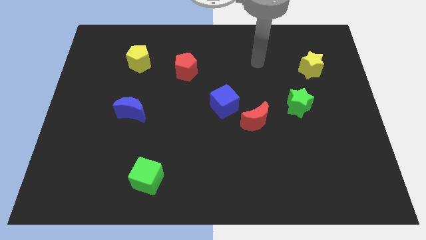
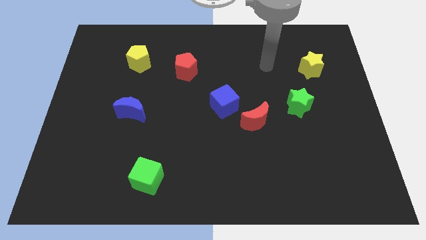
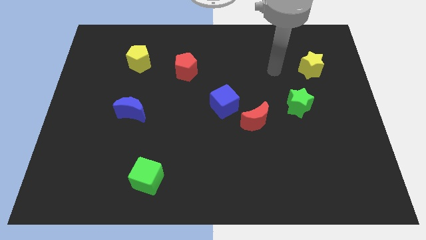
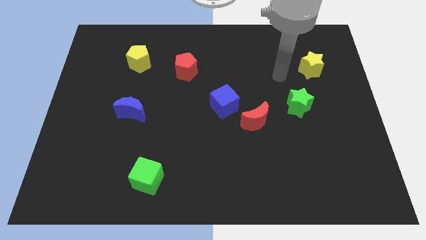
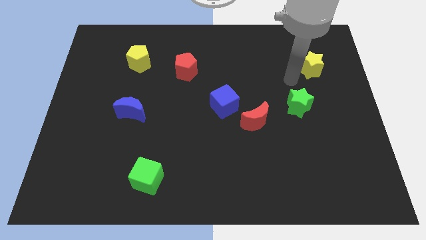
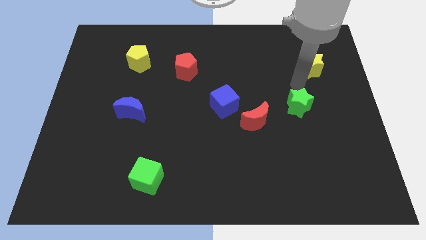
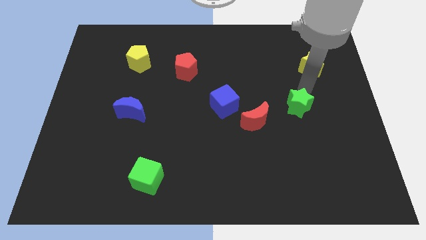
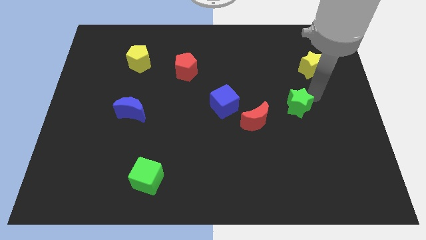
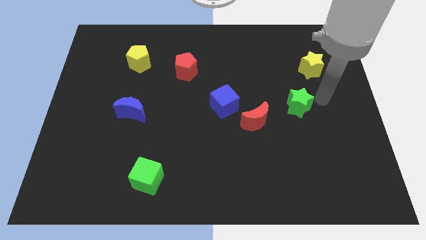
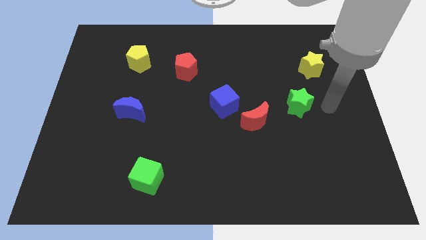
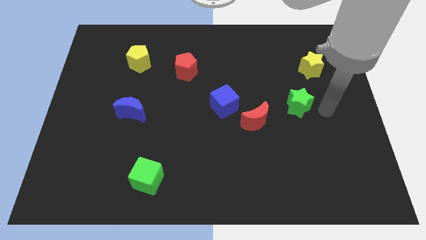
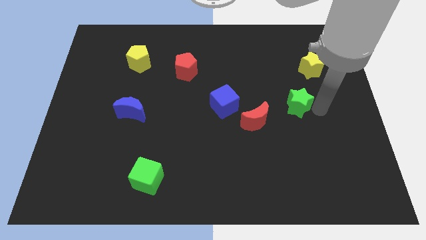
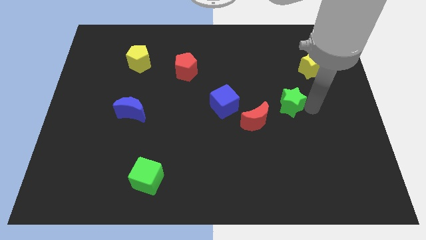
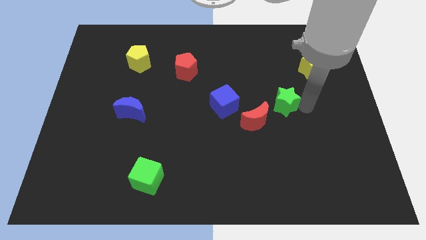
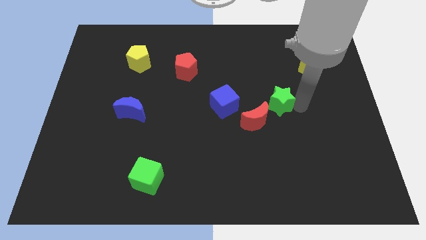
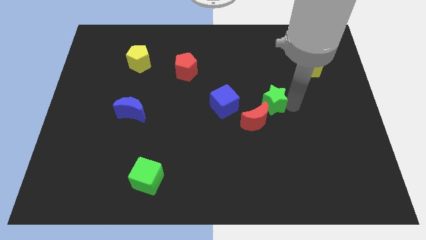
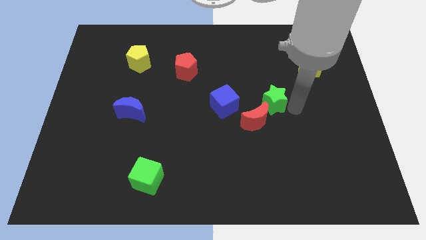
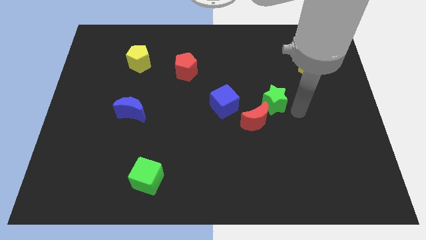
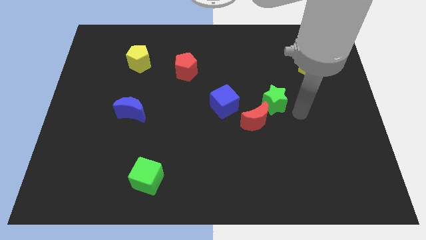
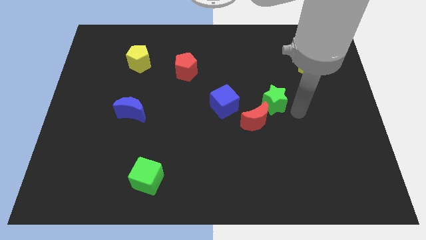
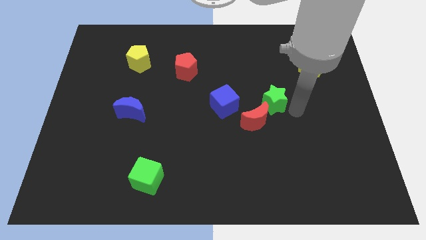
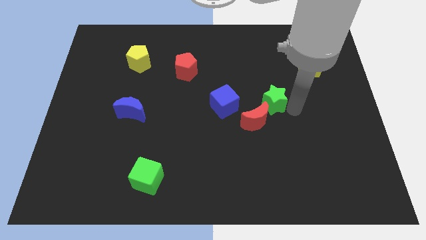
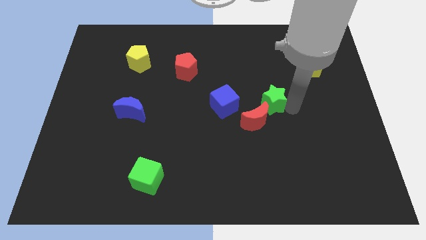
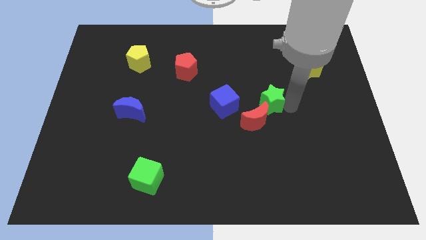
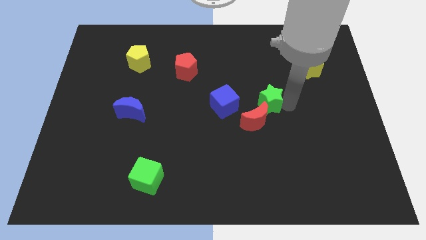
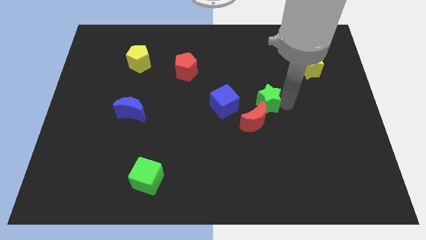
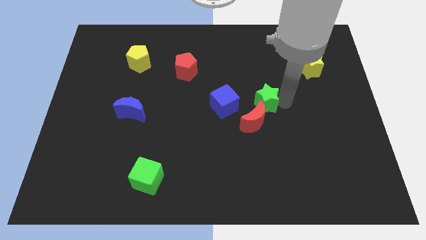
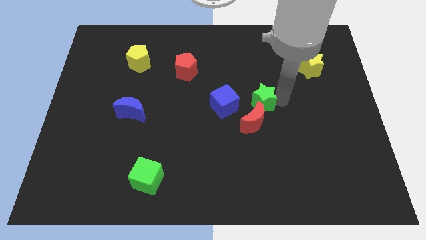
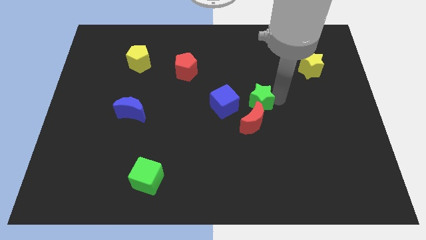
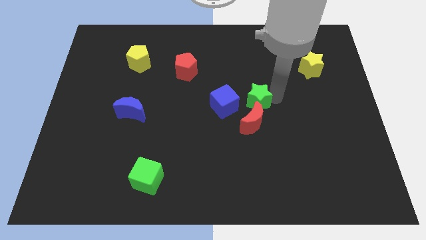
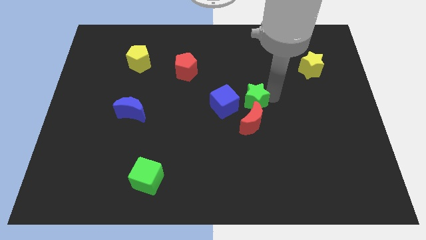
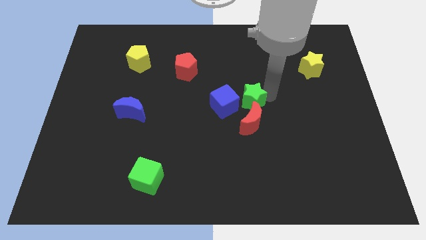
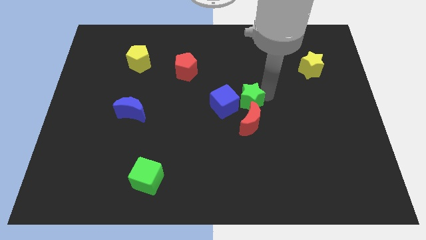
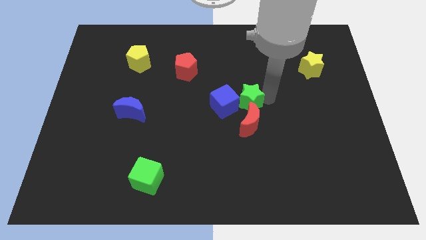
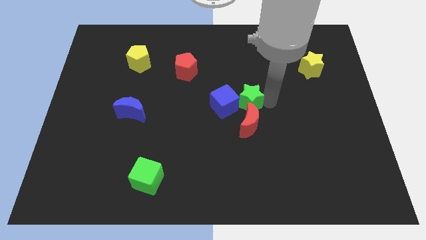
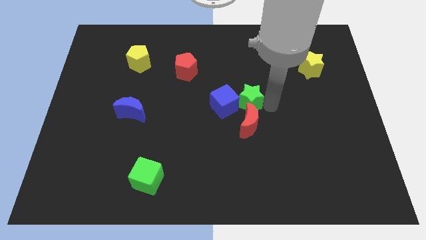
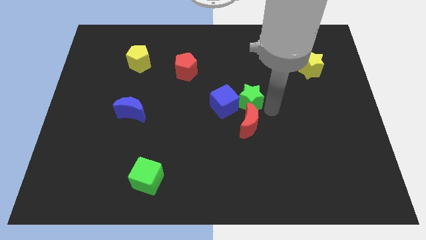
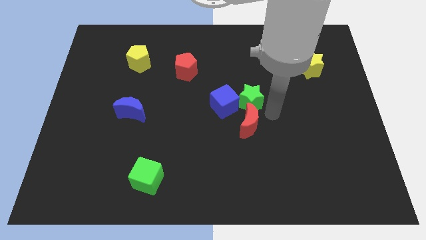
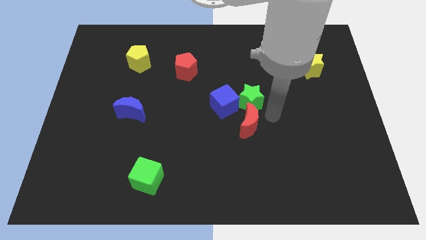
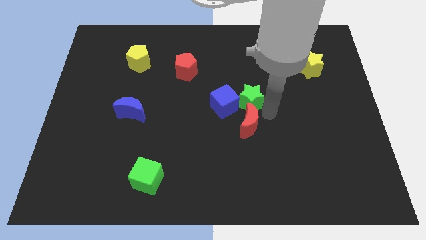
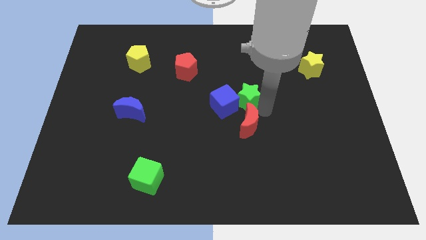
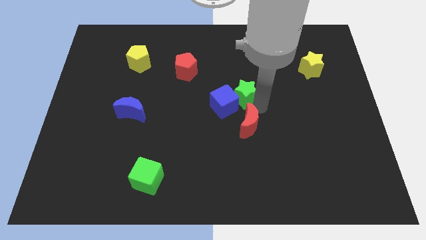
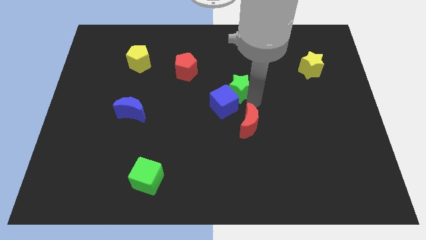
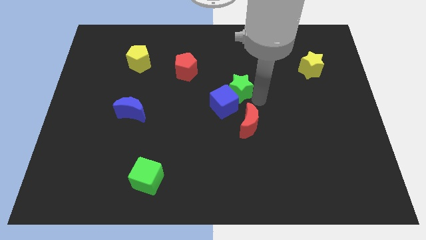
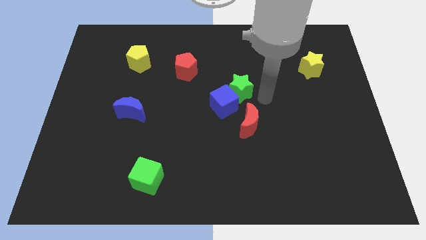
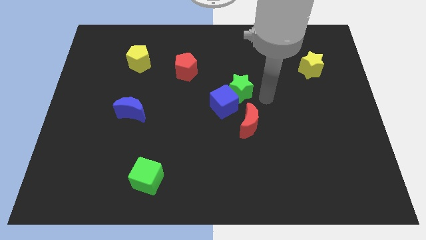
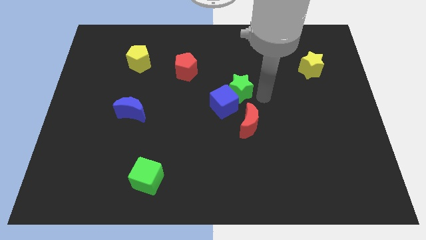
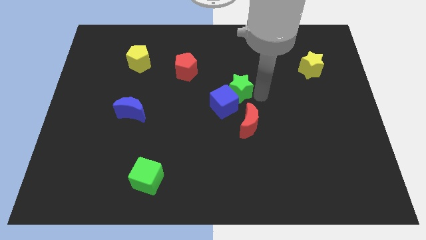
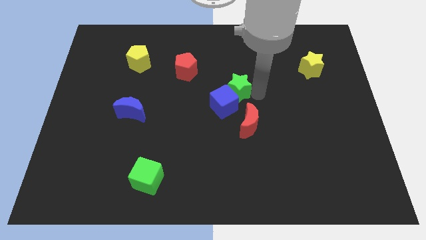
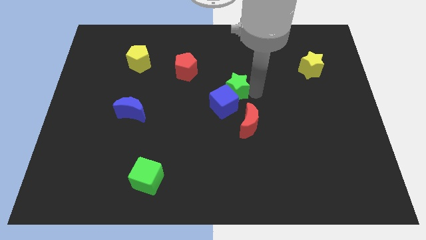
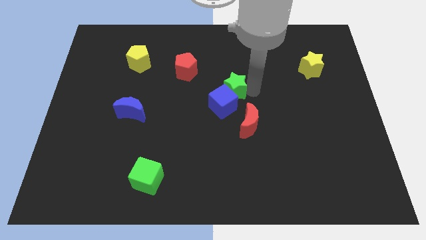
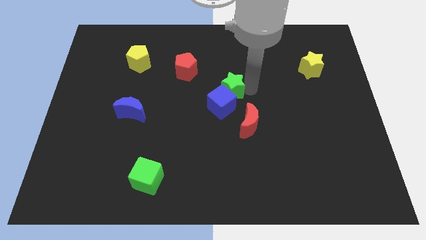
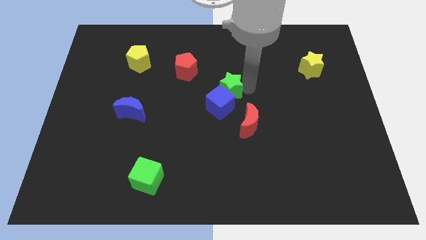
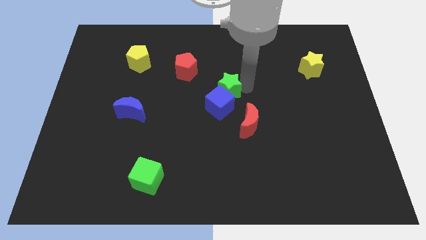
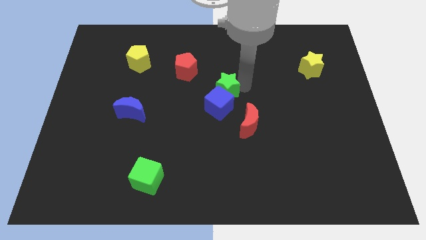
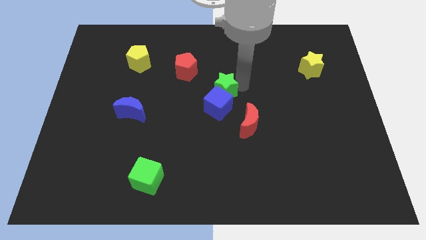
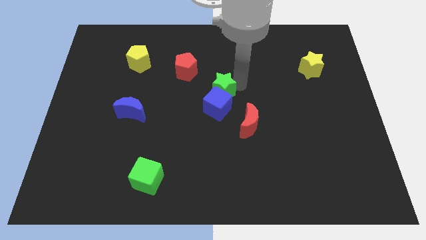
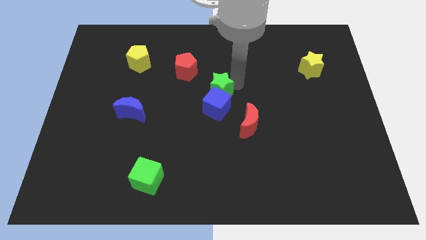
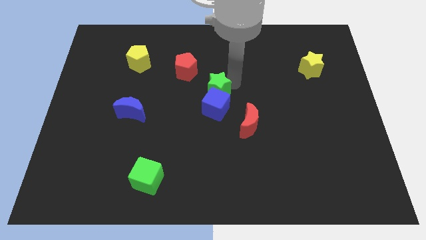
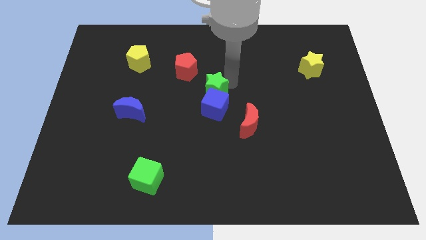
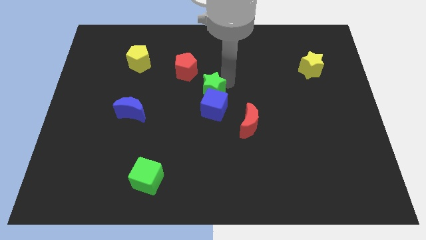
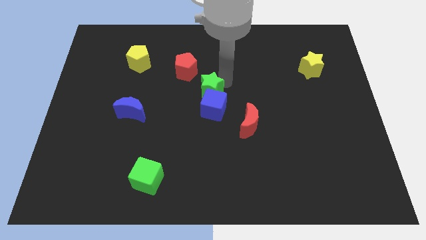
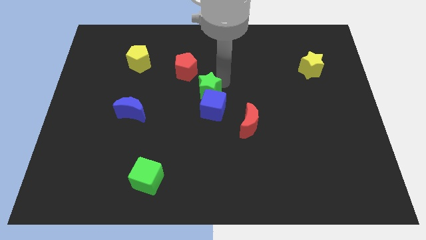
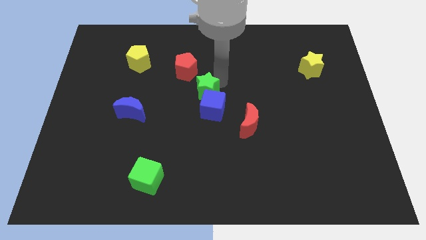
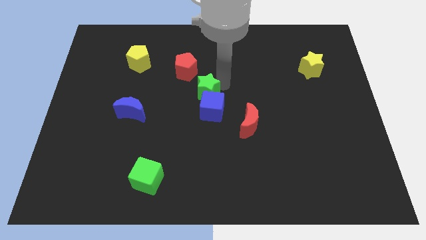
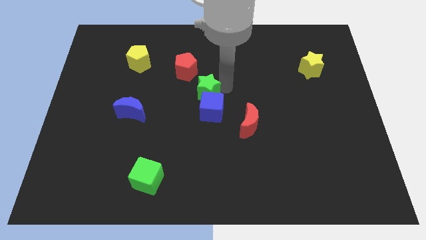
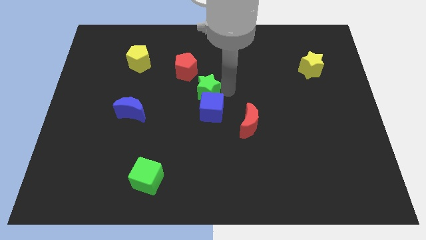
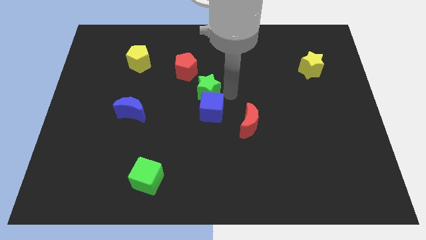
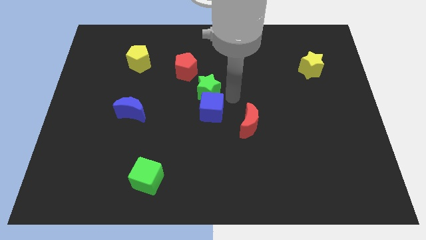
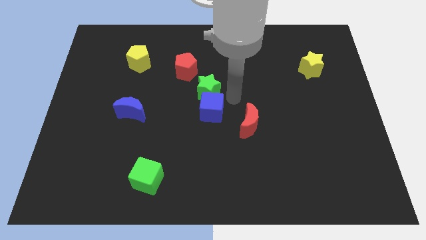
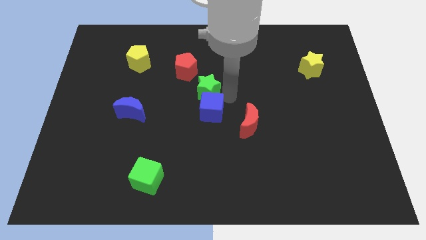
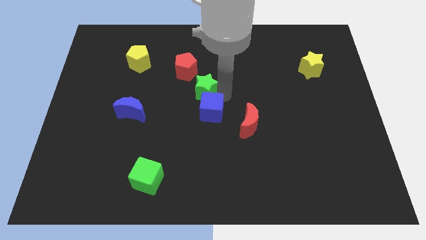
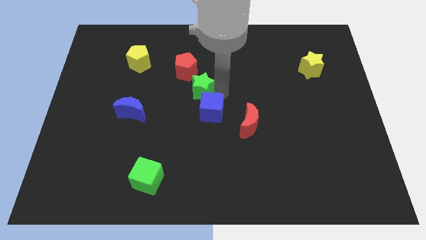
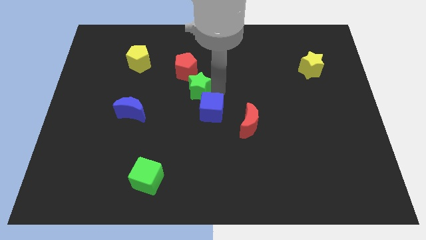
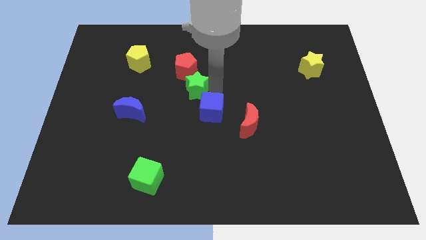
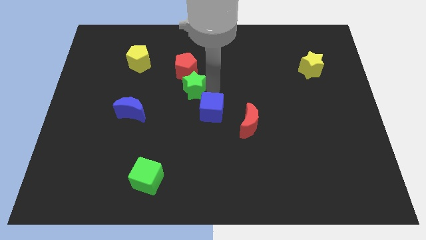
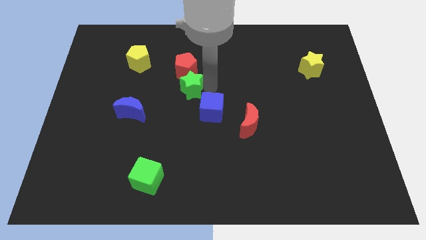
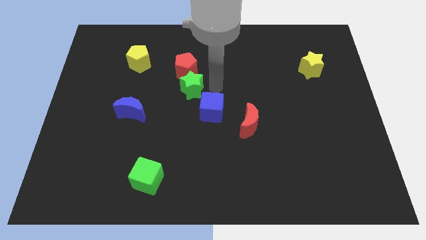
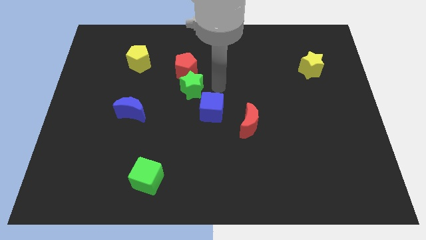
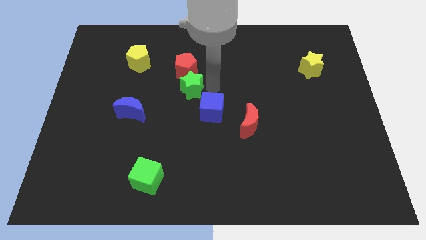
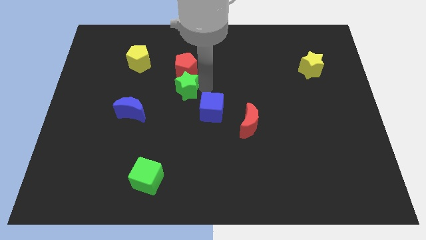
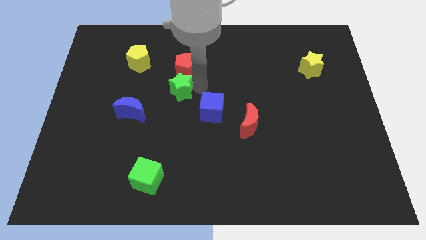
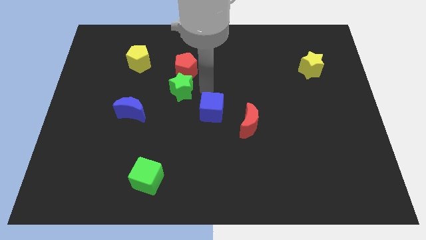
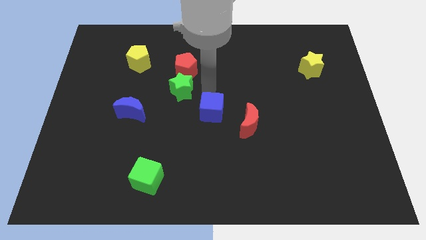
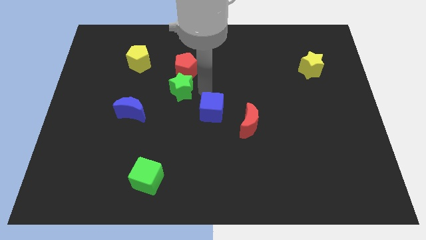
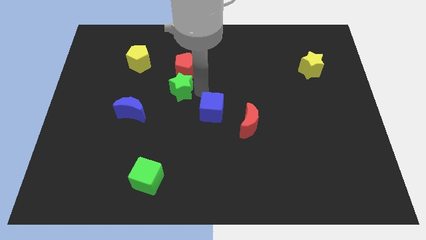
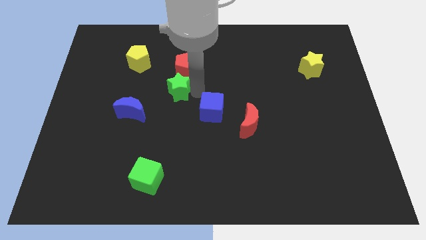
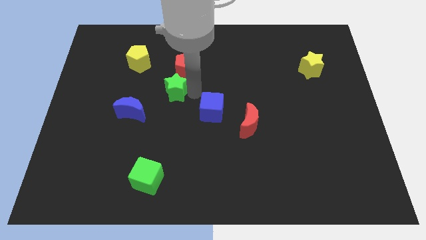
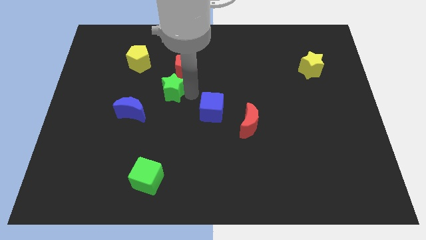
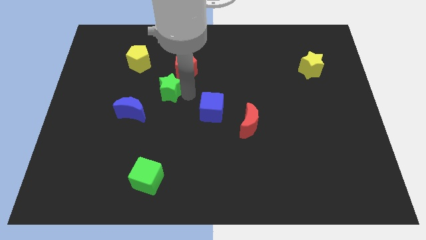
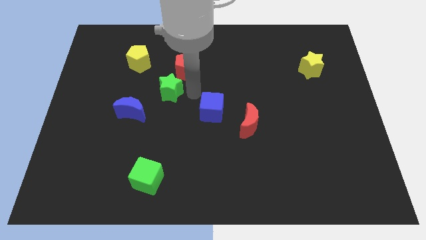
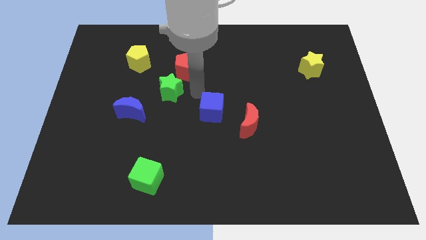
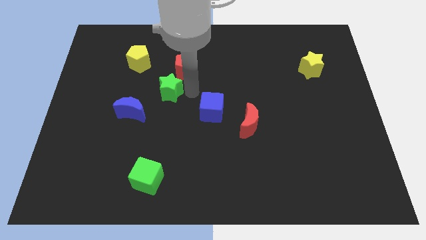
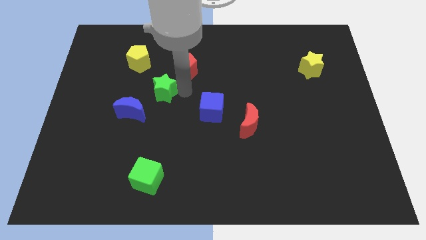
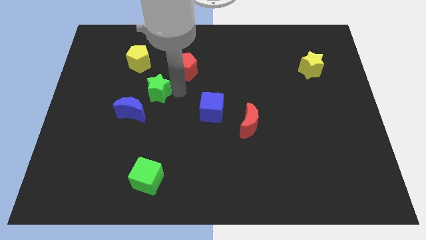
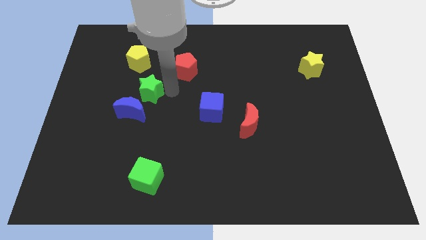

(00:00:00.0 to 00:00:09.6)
slide the green star below the yellow pentagon
